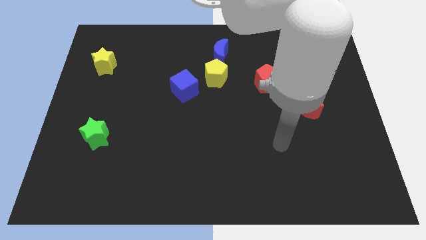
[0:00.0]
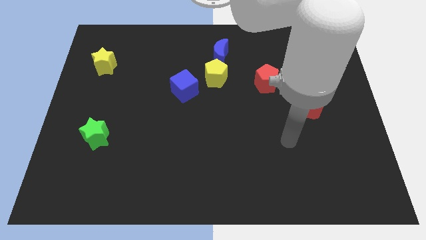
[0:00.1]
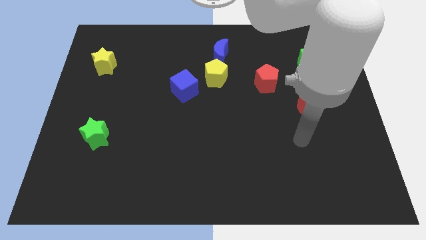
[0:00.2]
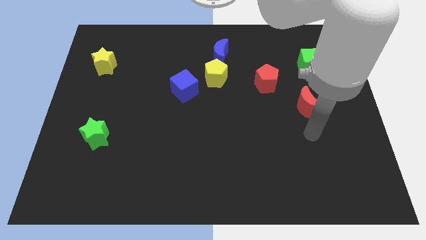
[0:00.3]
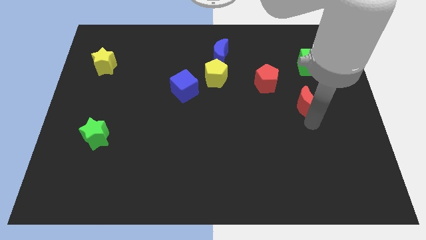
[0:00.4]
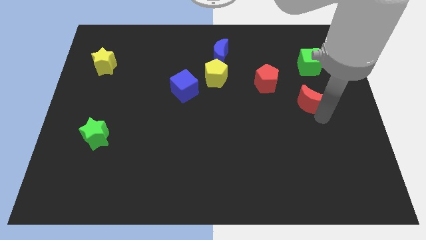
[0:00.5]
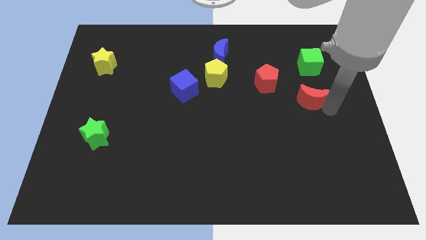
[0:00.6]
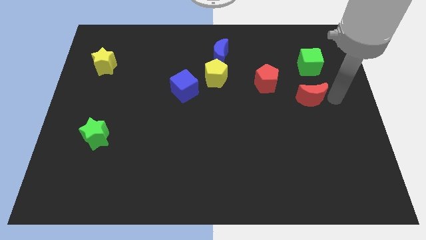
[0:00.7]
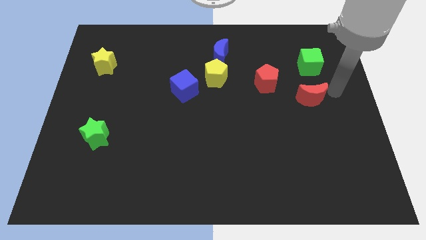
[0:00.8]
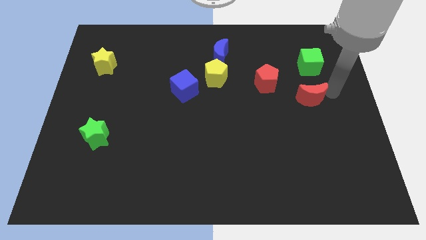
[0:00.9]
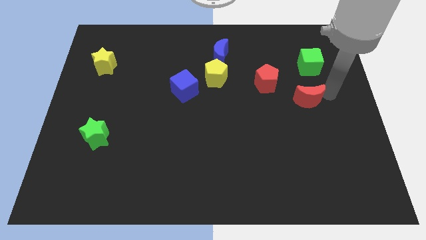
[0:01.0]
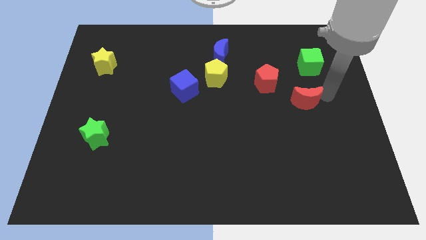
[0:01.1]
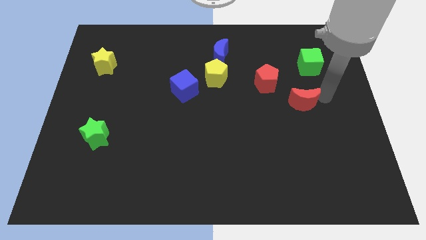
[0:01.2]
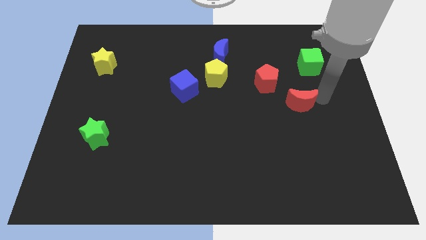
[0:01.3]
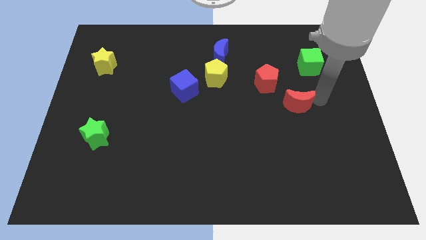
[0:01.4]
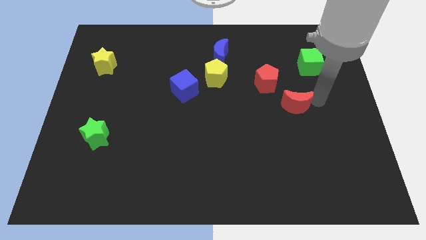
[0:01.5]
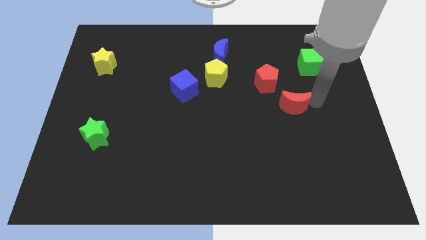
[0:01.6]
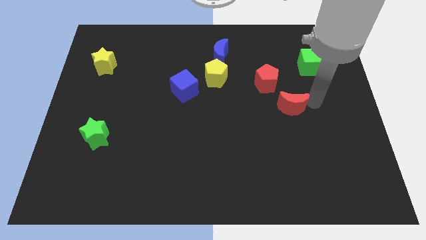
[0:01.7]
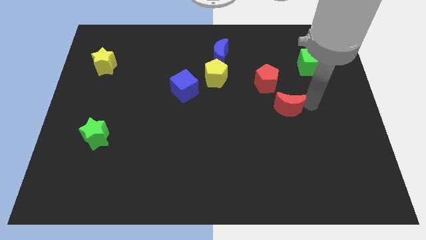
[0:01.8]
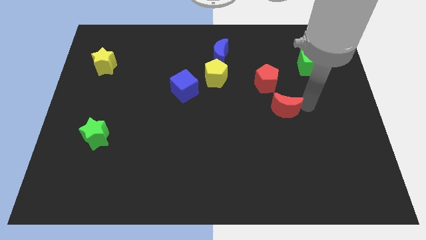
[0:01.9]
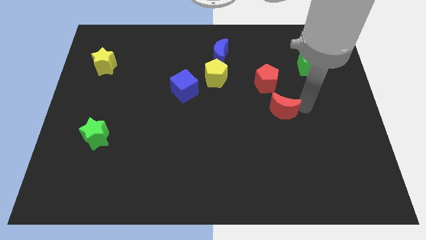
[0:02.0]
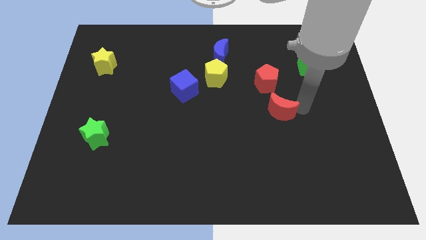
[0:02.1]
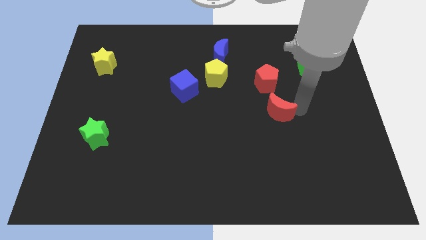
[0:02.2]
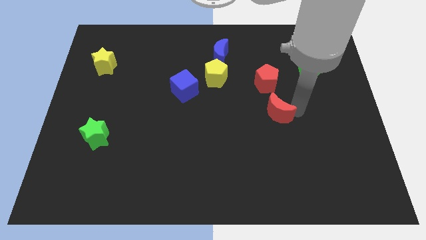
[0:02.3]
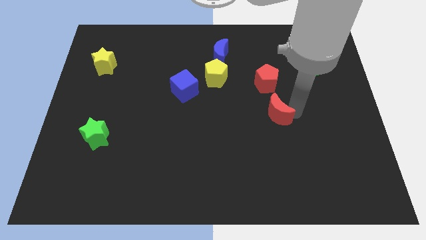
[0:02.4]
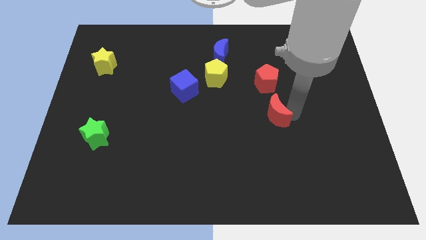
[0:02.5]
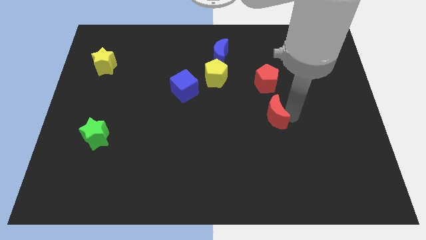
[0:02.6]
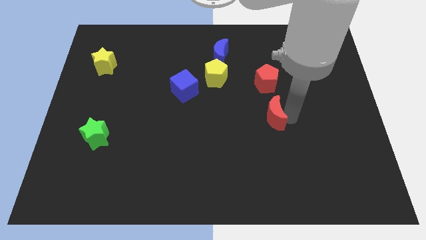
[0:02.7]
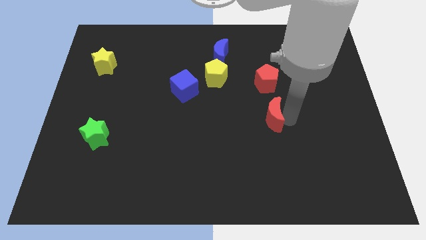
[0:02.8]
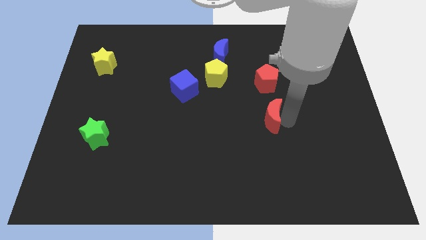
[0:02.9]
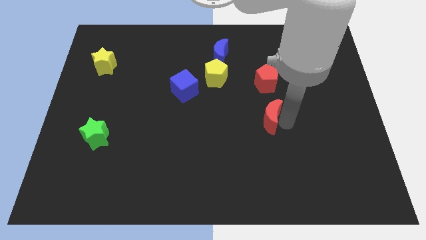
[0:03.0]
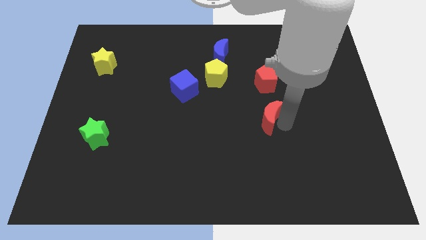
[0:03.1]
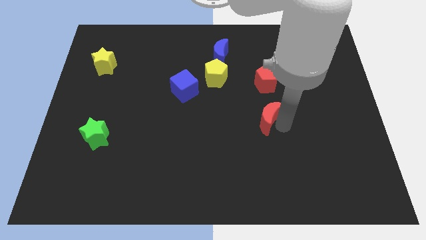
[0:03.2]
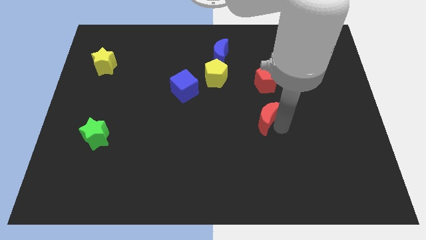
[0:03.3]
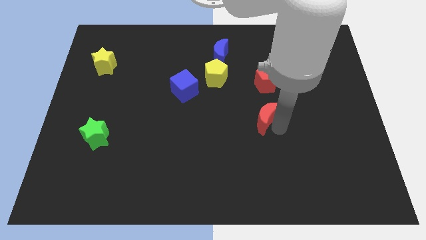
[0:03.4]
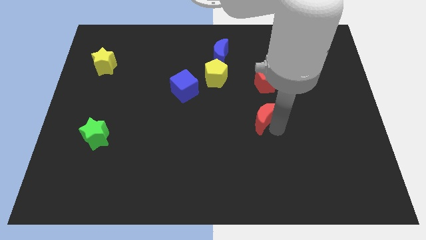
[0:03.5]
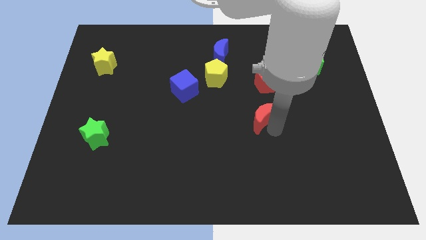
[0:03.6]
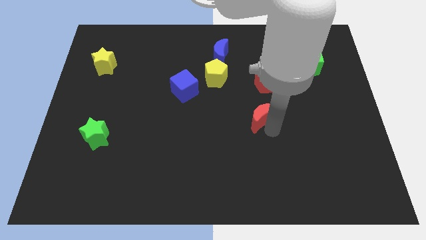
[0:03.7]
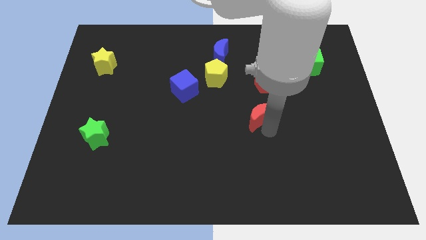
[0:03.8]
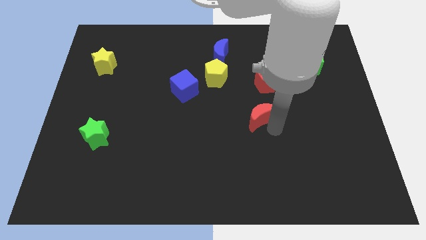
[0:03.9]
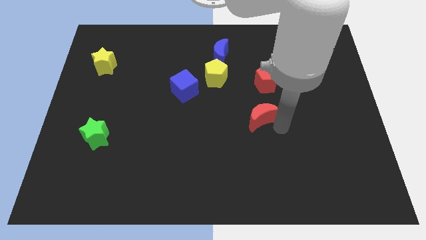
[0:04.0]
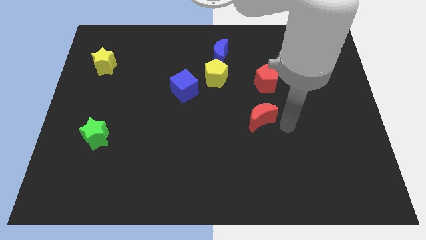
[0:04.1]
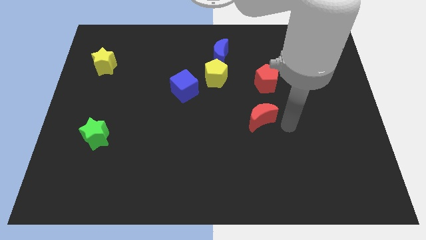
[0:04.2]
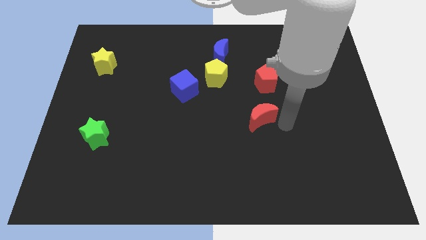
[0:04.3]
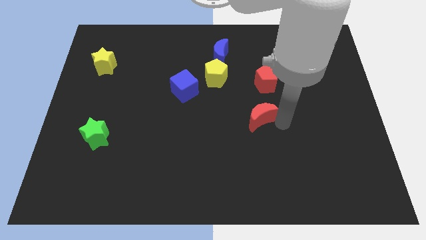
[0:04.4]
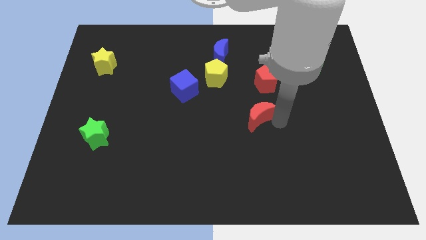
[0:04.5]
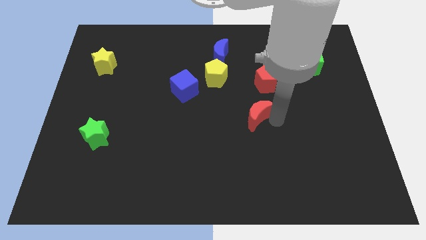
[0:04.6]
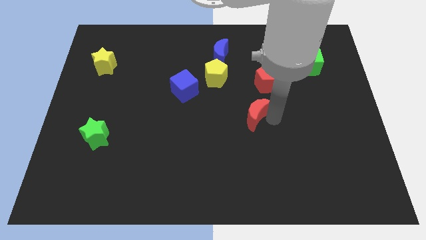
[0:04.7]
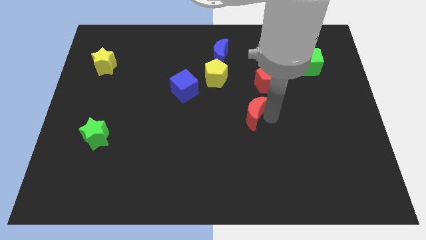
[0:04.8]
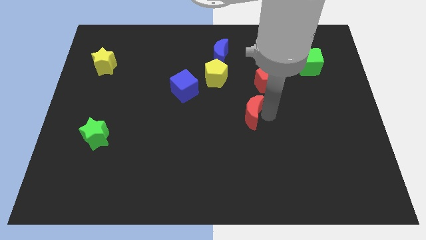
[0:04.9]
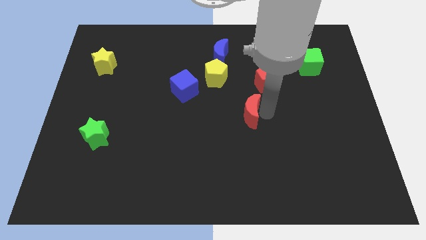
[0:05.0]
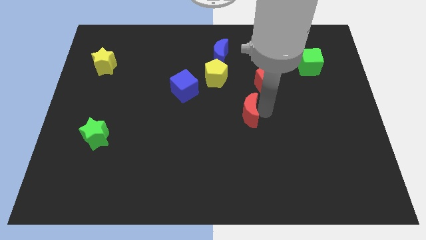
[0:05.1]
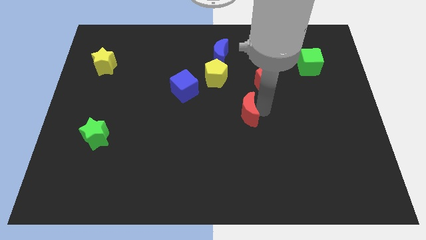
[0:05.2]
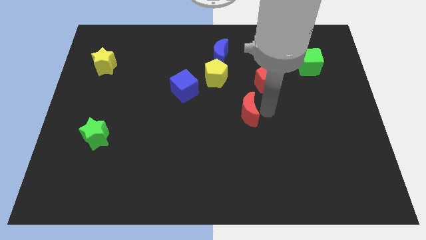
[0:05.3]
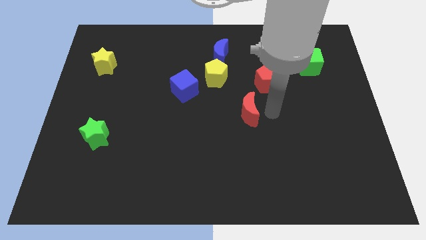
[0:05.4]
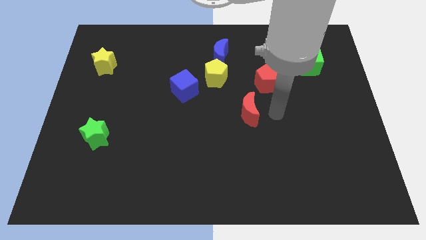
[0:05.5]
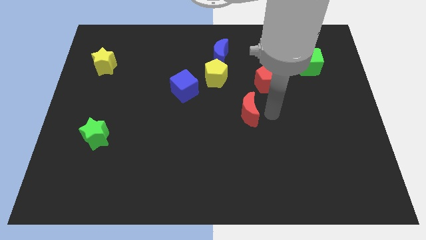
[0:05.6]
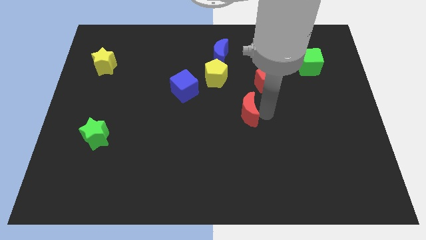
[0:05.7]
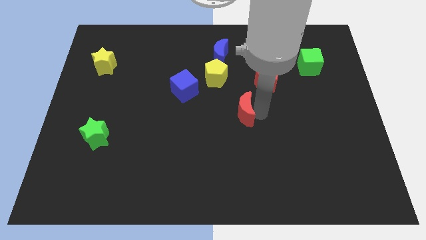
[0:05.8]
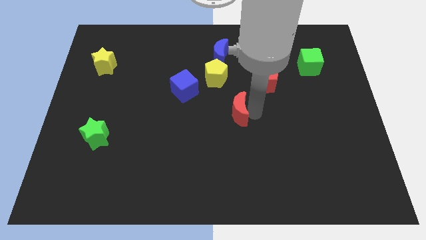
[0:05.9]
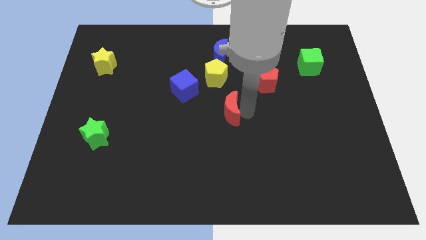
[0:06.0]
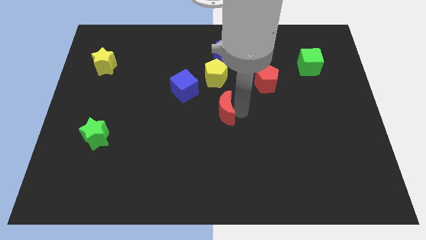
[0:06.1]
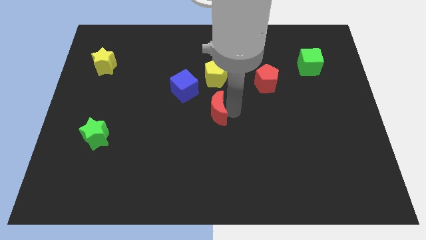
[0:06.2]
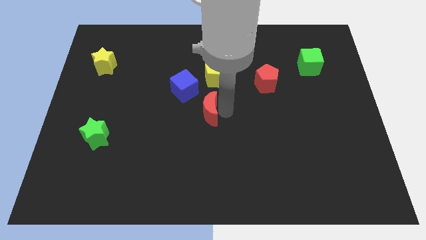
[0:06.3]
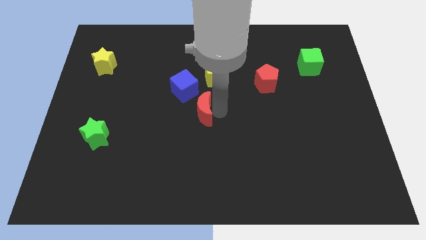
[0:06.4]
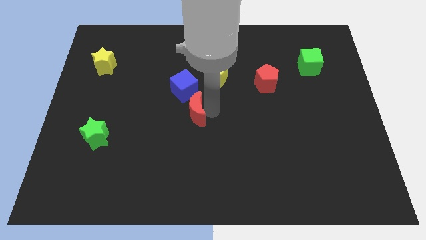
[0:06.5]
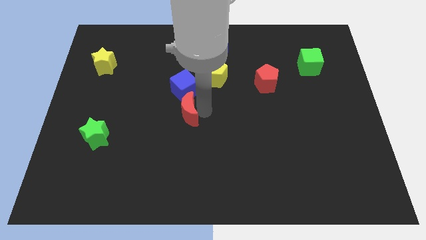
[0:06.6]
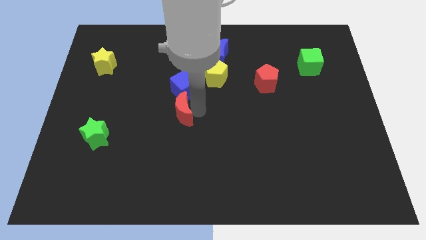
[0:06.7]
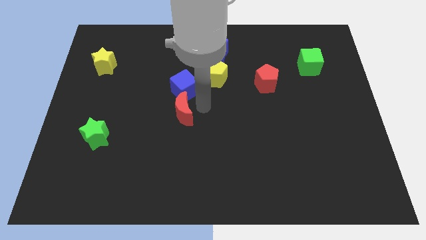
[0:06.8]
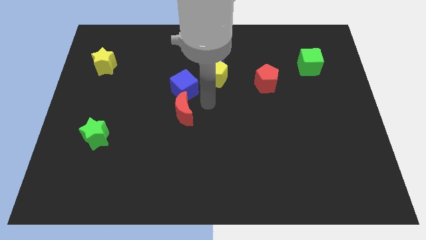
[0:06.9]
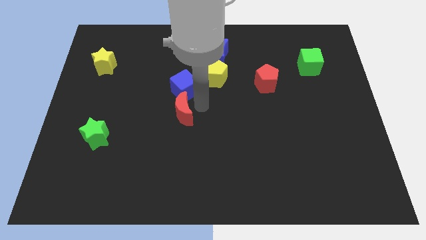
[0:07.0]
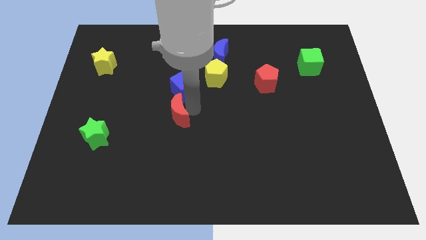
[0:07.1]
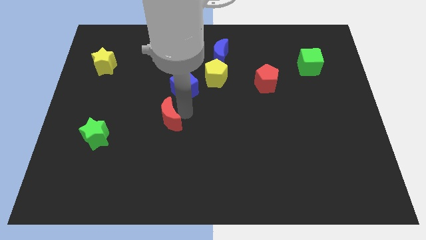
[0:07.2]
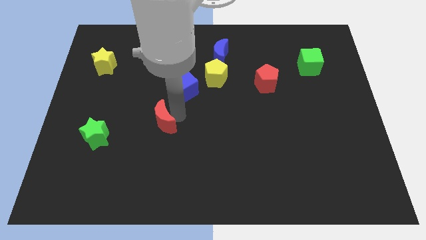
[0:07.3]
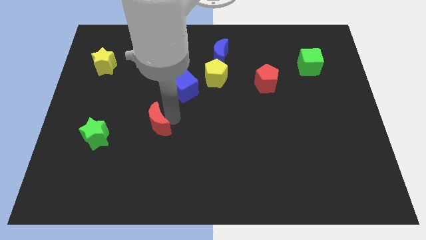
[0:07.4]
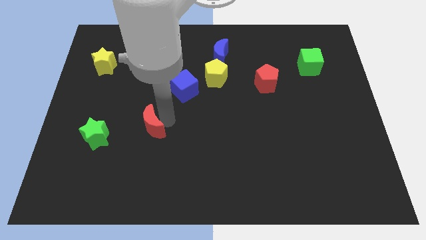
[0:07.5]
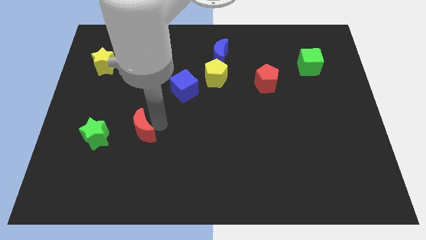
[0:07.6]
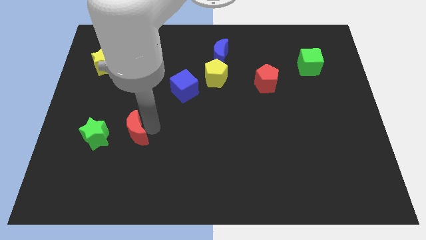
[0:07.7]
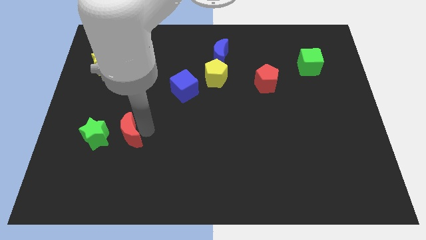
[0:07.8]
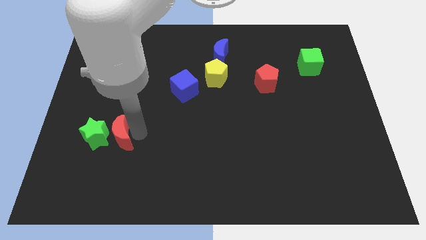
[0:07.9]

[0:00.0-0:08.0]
move the red moon next to the green star
